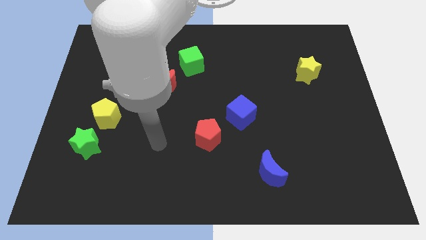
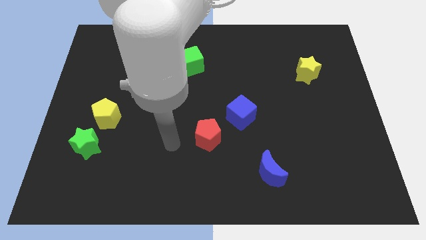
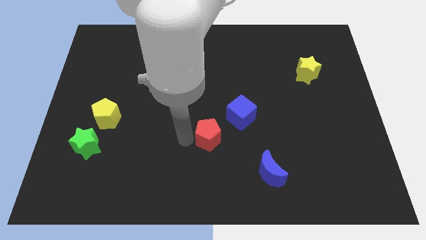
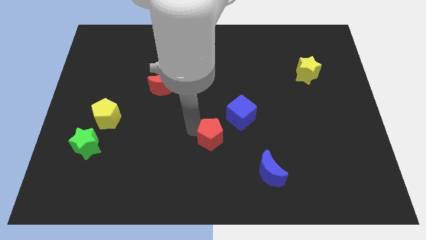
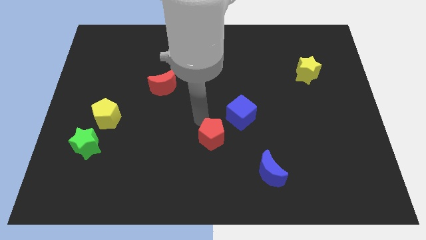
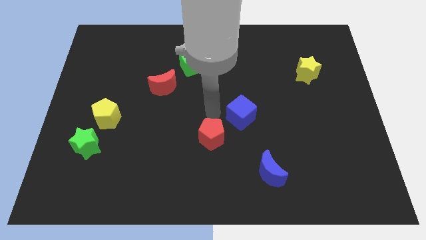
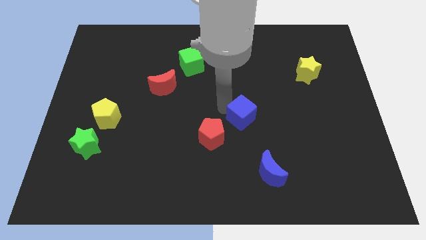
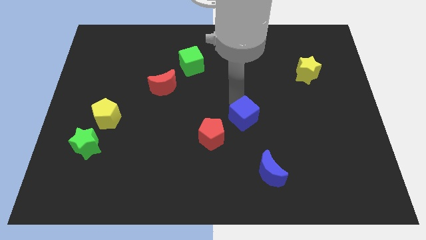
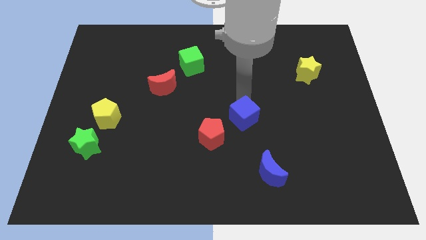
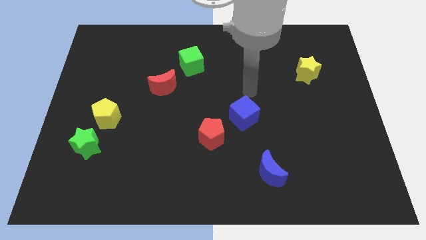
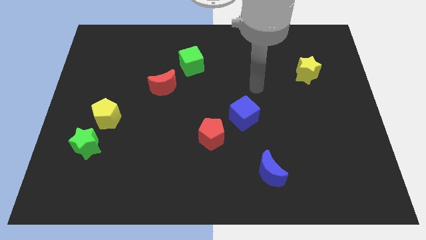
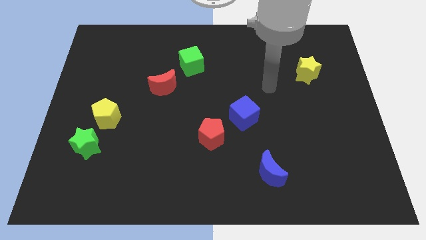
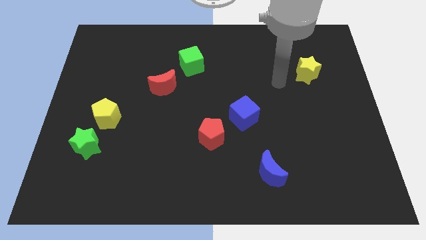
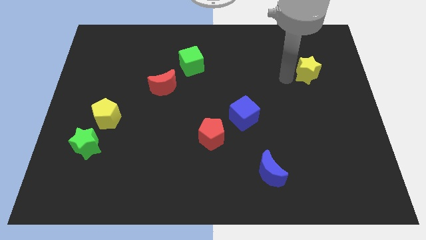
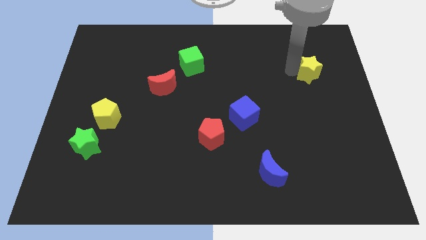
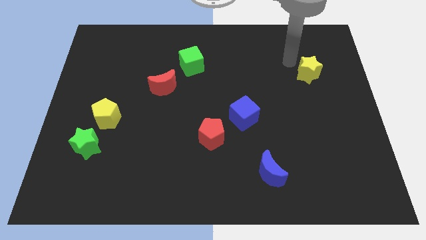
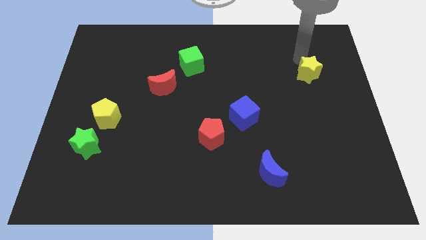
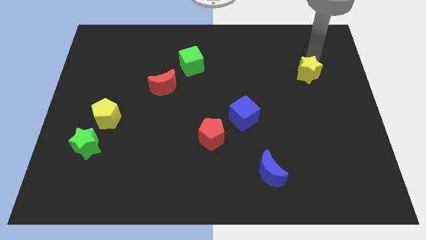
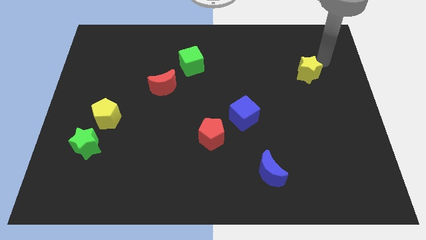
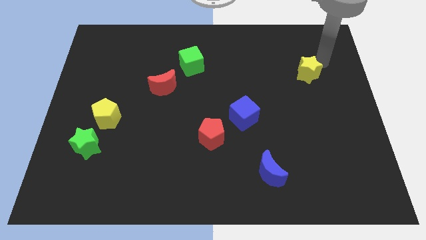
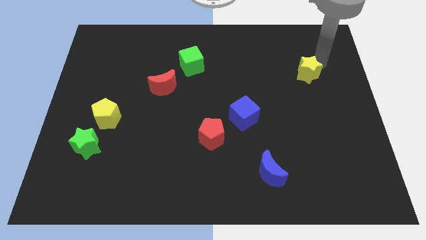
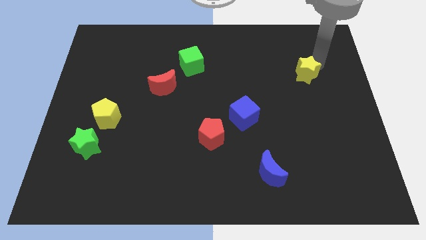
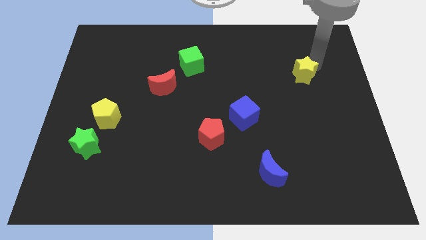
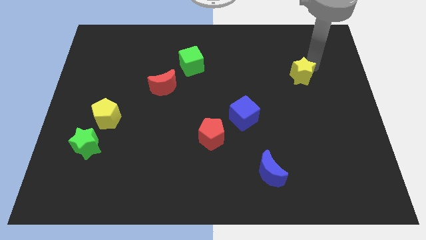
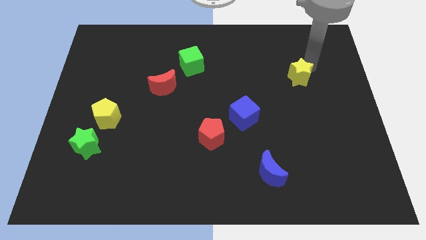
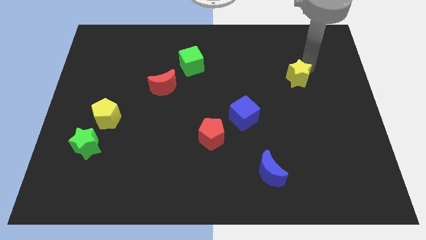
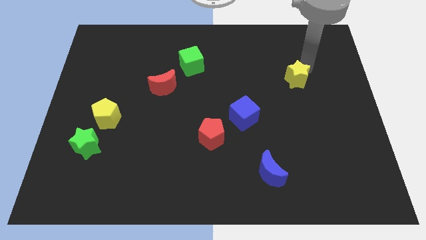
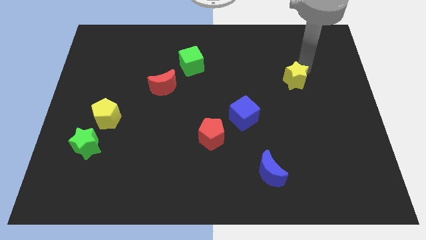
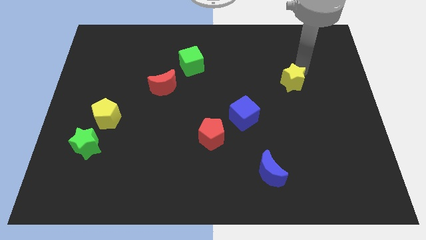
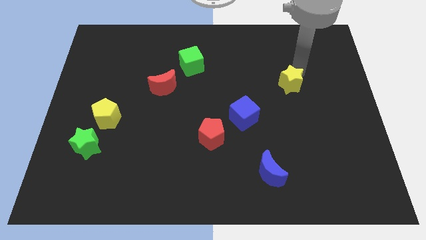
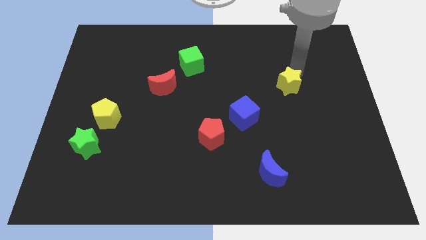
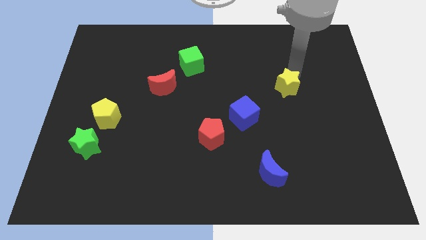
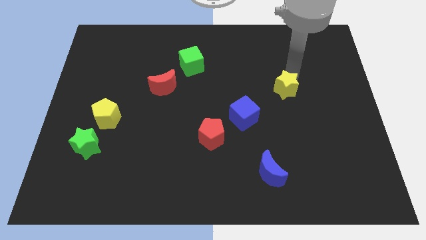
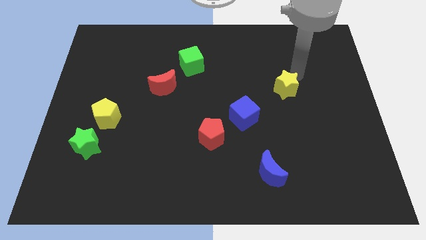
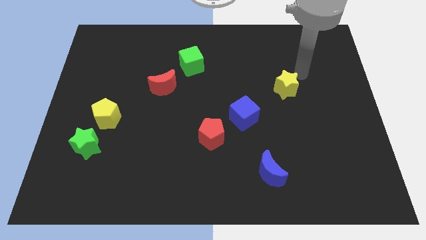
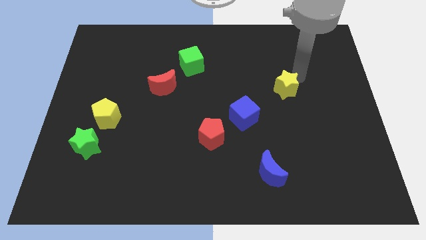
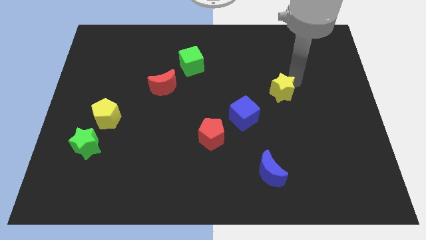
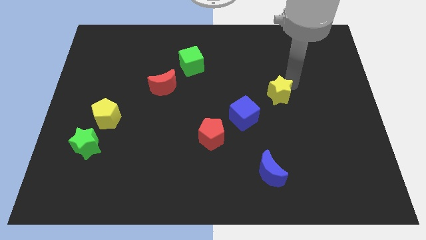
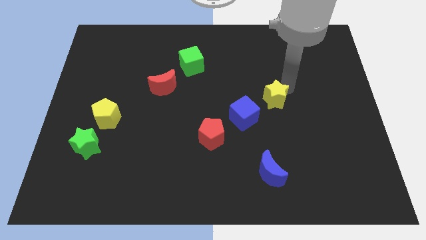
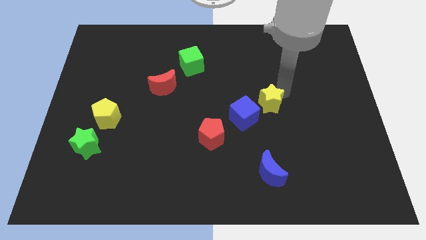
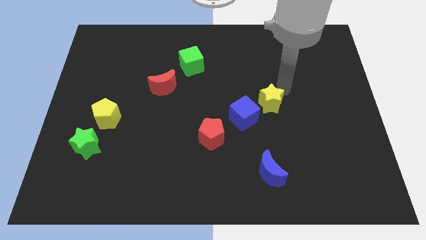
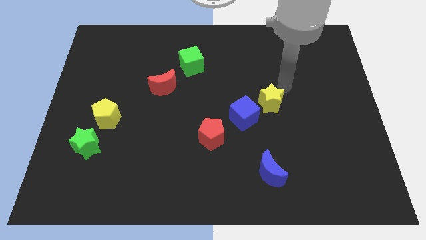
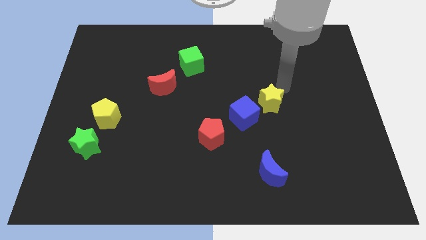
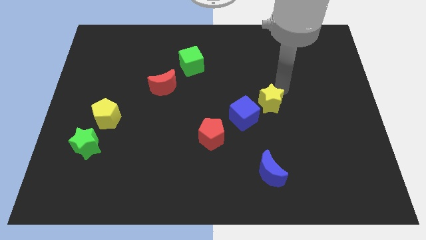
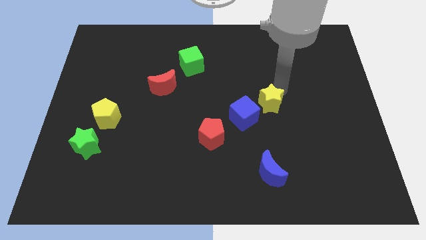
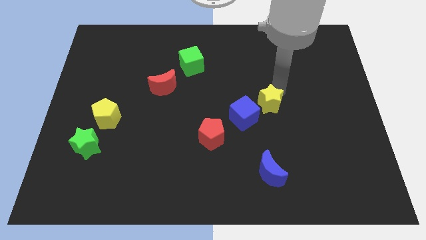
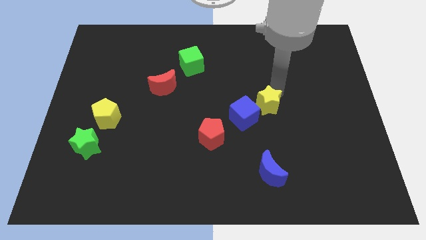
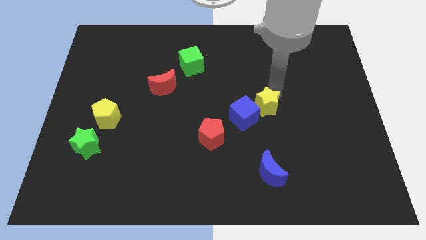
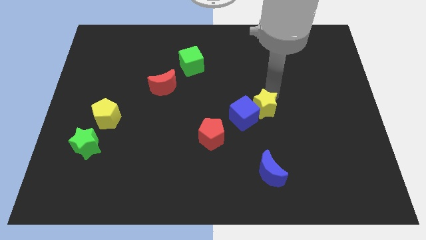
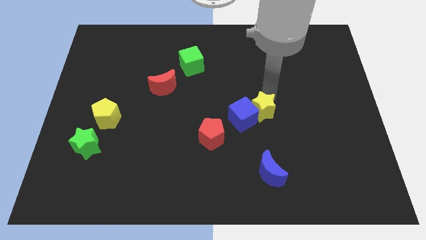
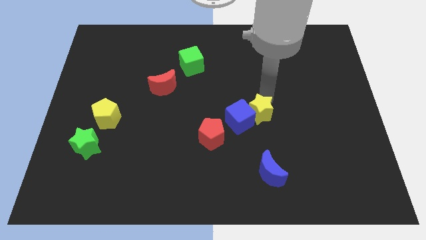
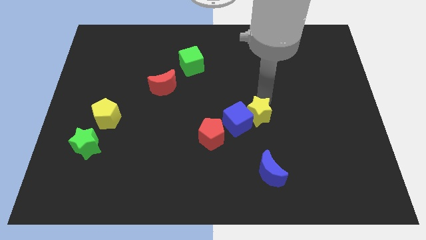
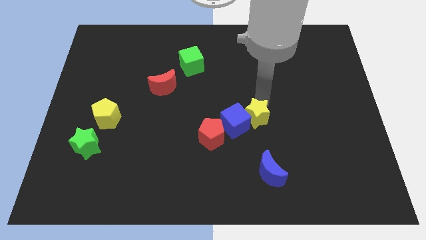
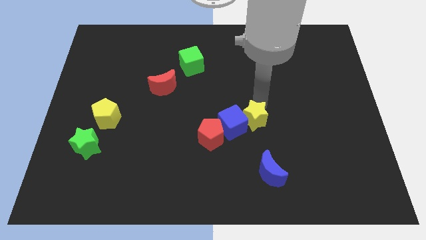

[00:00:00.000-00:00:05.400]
slide the yellow star downwards and then to the left

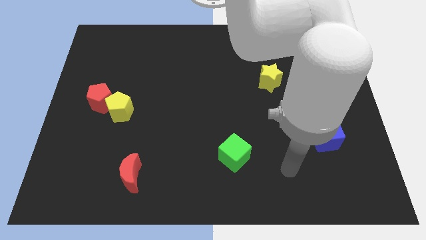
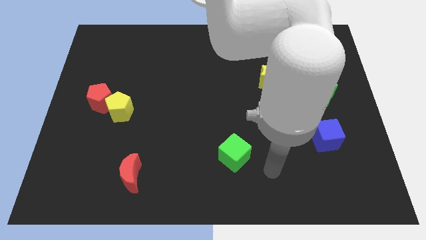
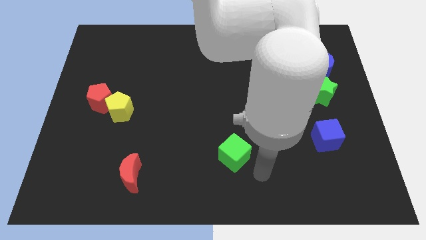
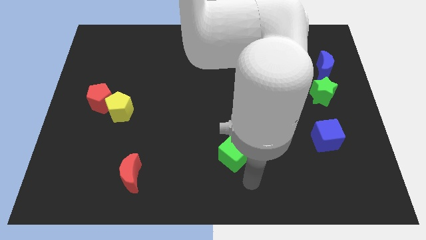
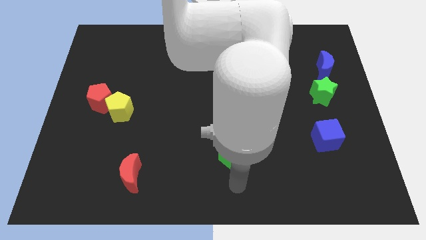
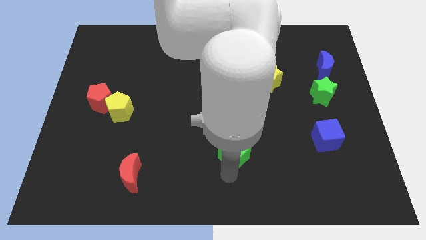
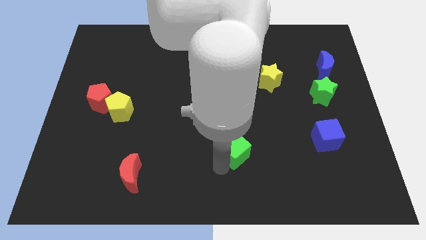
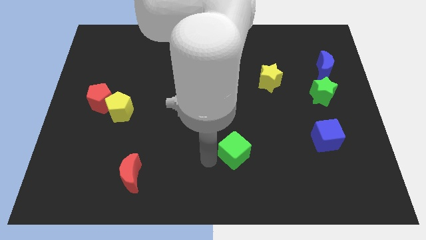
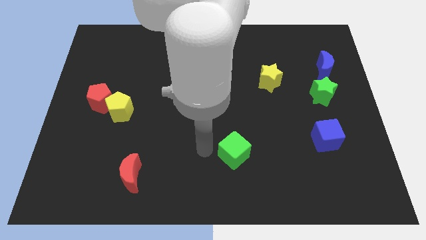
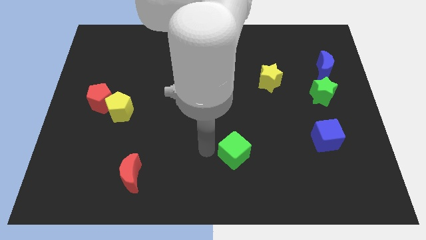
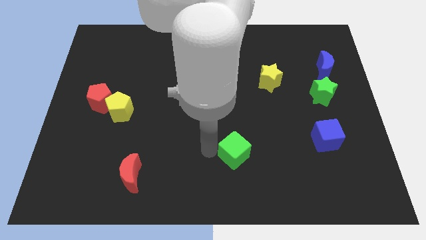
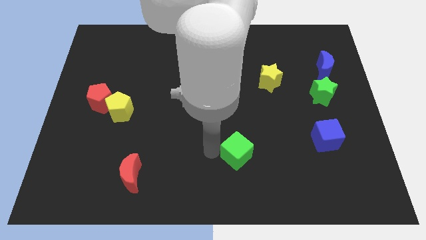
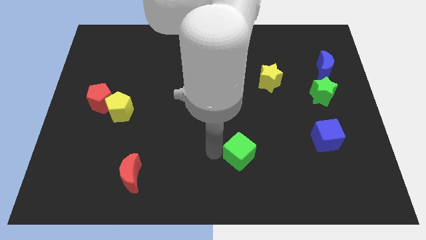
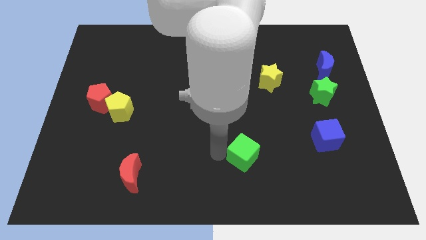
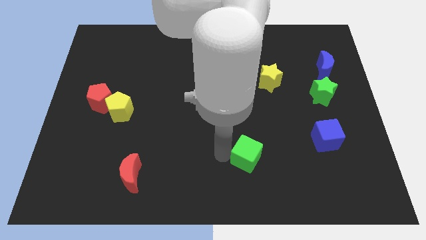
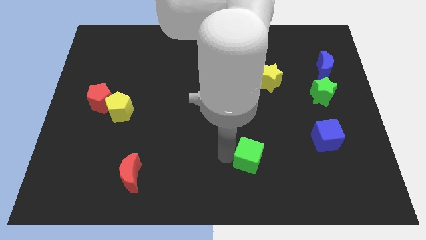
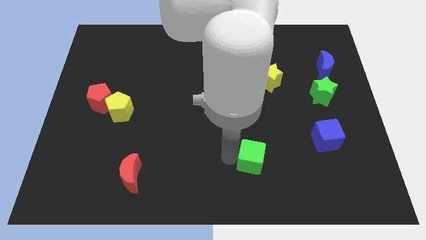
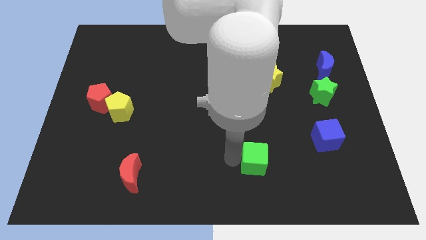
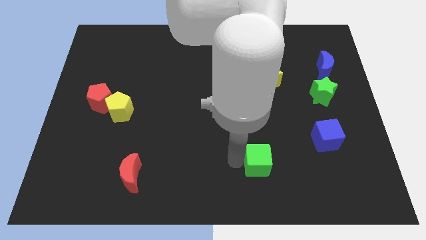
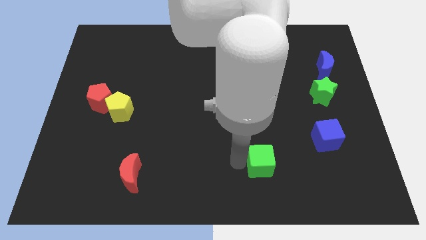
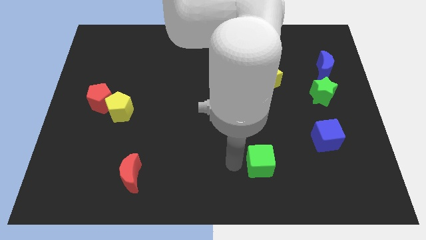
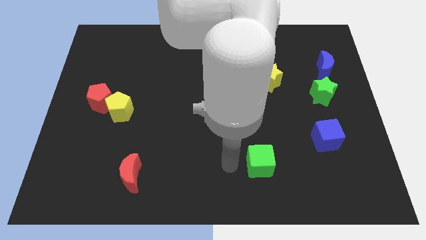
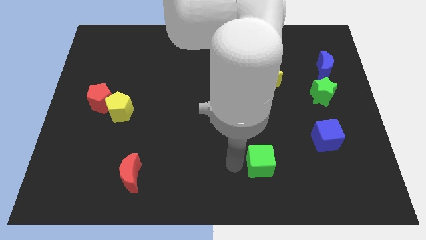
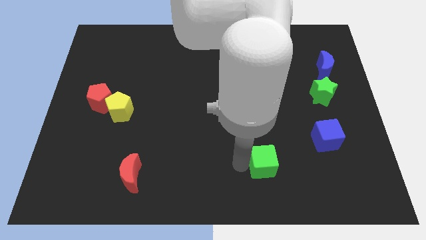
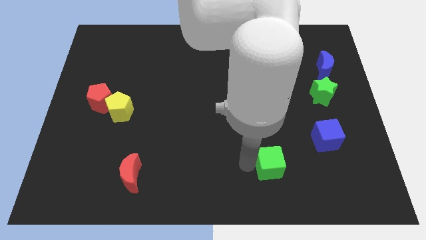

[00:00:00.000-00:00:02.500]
push the green cube a bit to the right

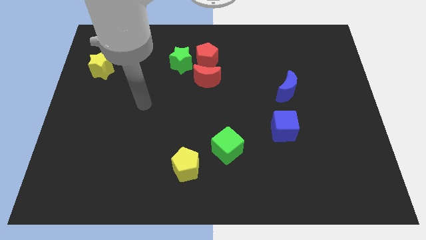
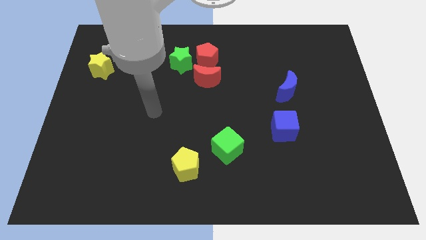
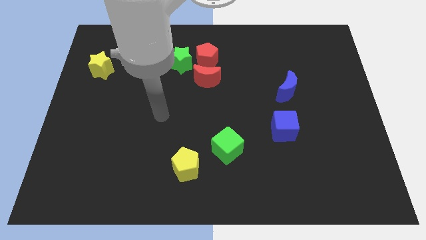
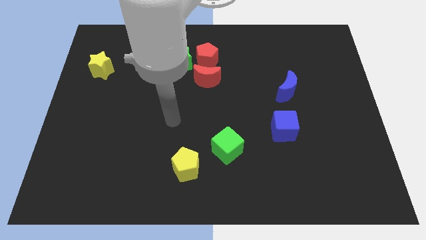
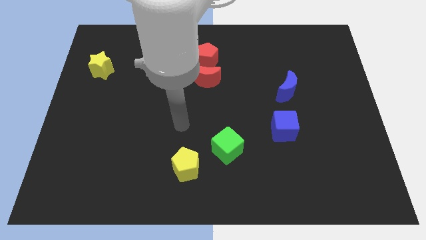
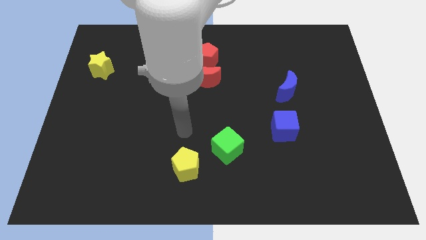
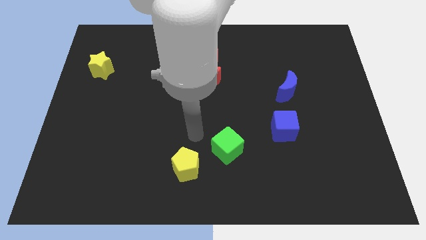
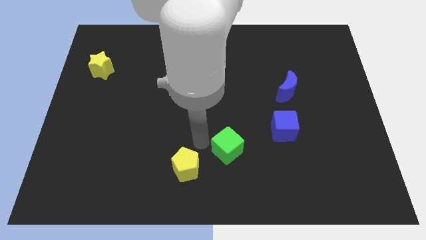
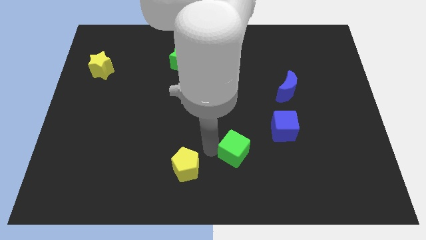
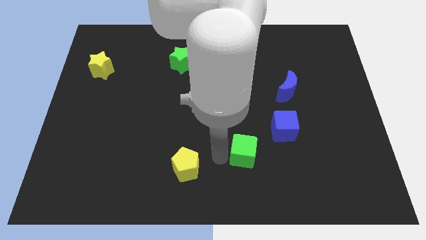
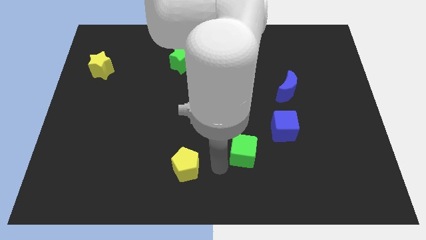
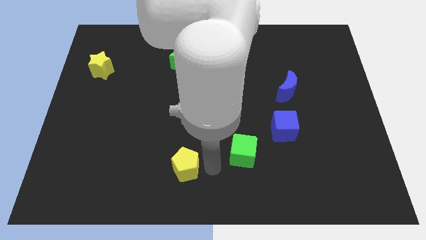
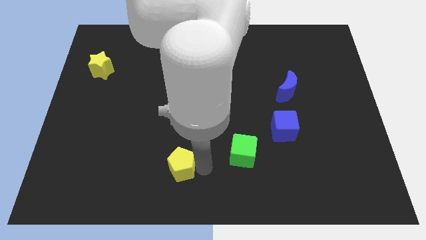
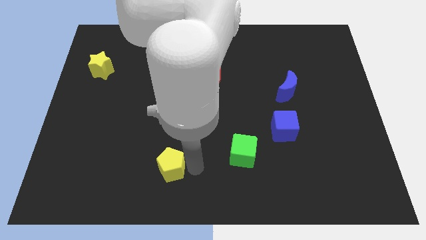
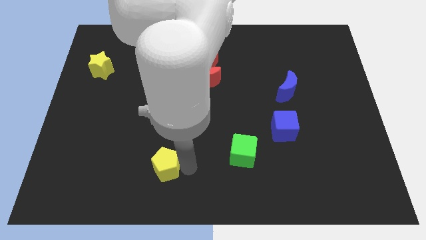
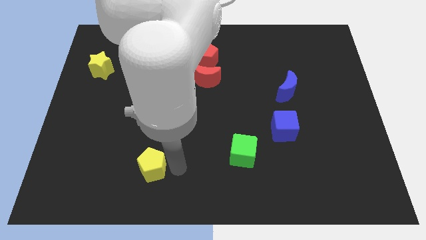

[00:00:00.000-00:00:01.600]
push the yellow pentagon to the left a little bit
